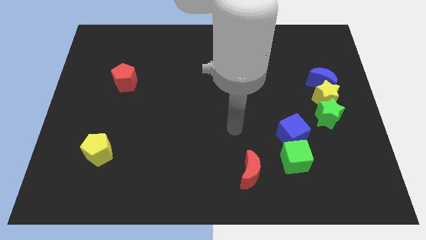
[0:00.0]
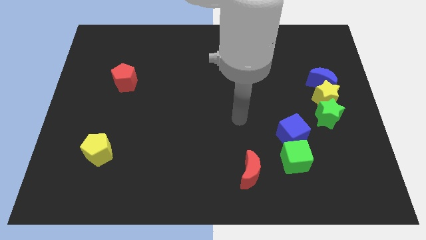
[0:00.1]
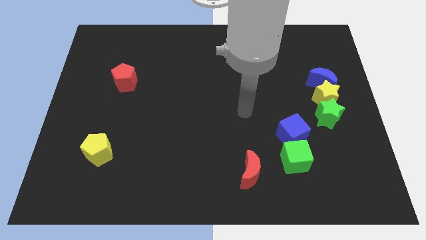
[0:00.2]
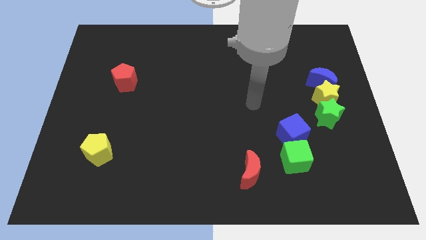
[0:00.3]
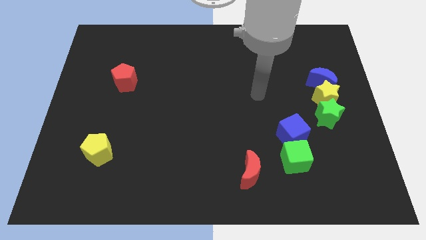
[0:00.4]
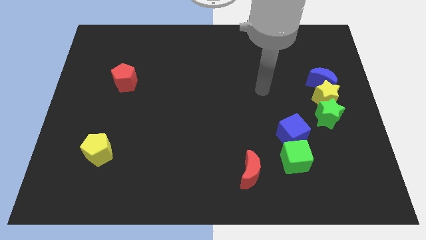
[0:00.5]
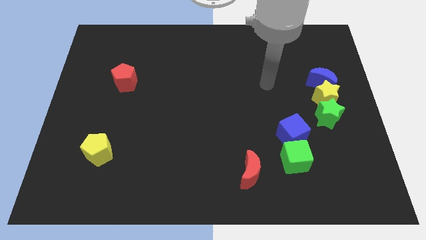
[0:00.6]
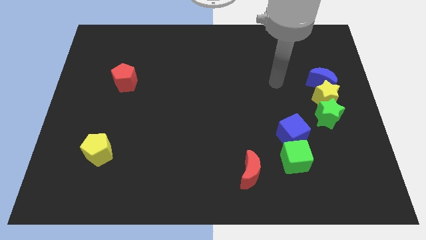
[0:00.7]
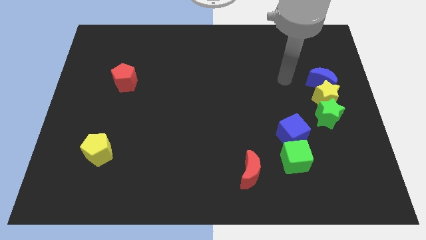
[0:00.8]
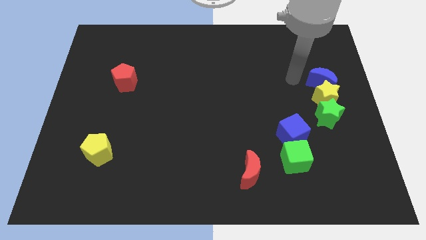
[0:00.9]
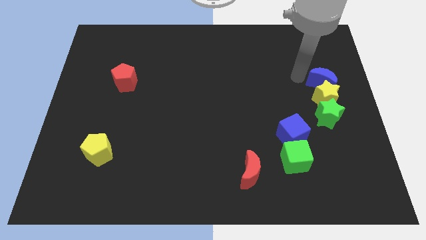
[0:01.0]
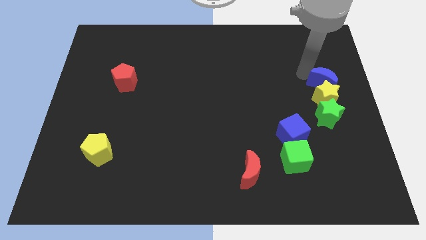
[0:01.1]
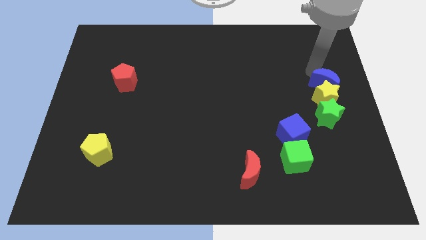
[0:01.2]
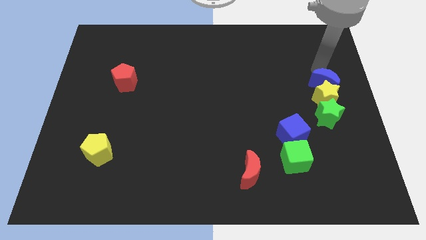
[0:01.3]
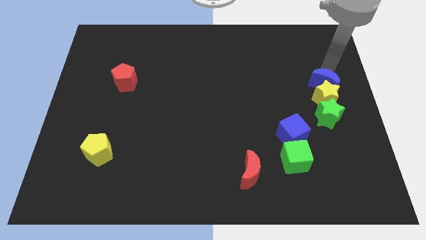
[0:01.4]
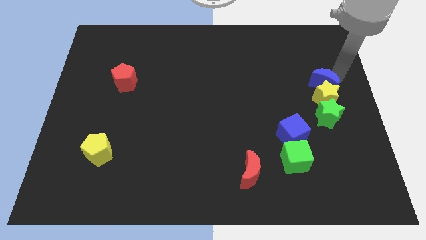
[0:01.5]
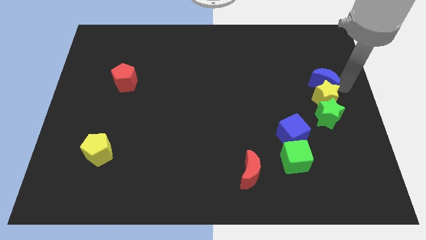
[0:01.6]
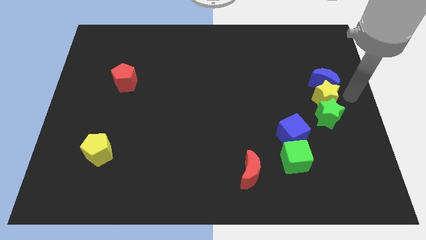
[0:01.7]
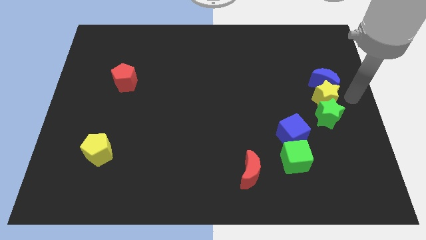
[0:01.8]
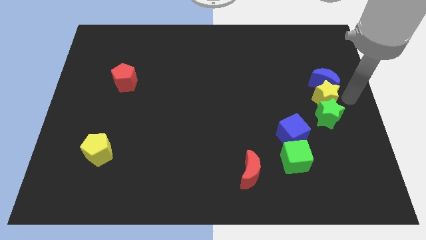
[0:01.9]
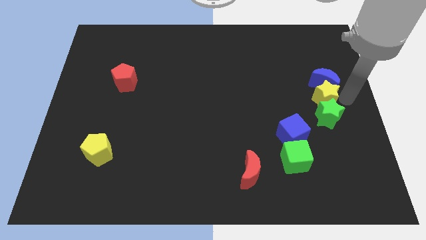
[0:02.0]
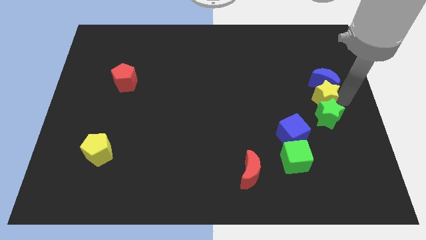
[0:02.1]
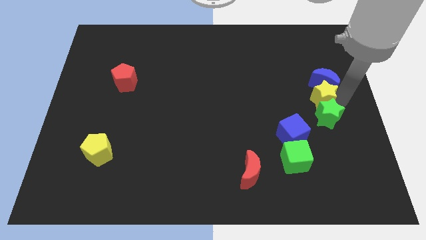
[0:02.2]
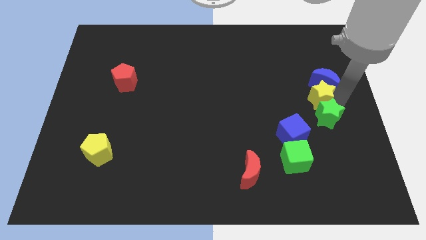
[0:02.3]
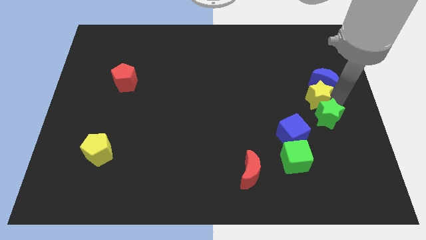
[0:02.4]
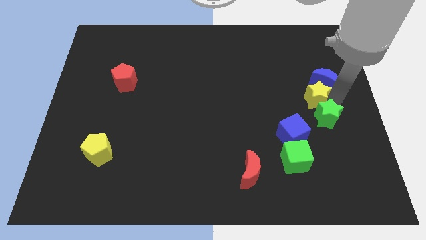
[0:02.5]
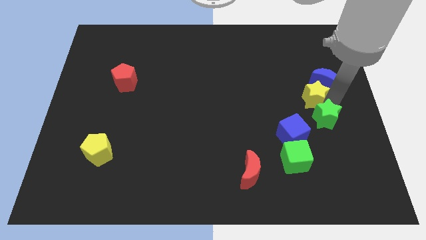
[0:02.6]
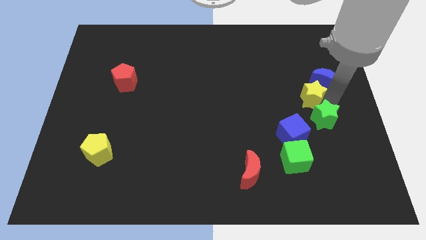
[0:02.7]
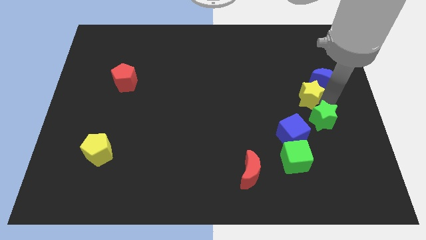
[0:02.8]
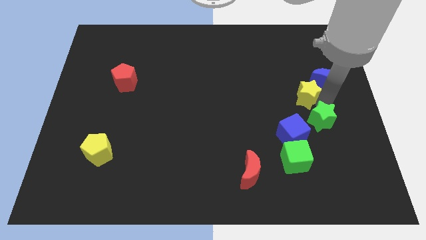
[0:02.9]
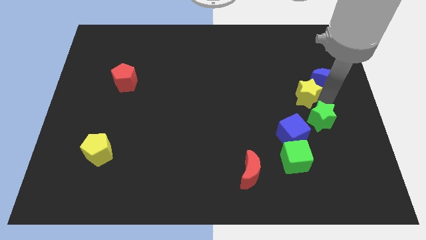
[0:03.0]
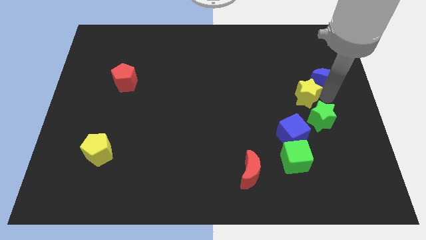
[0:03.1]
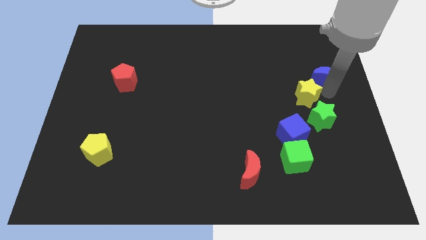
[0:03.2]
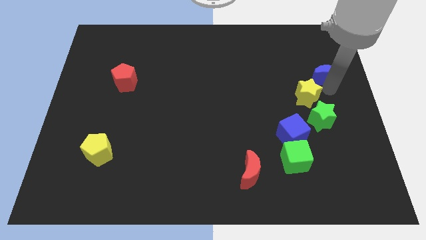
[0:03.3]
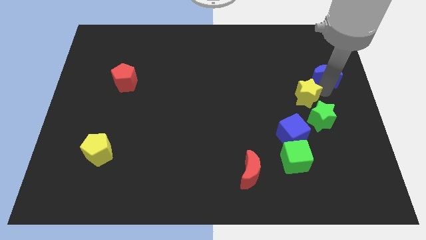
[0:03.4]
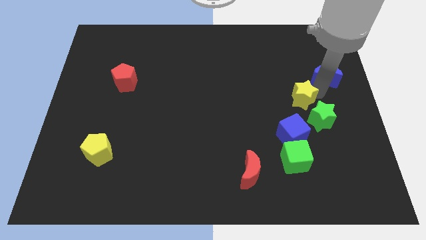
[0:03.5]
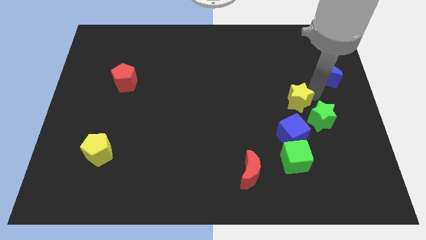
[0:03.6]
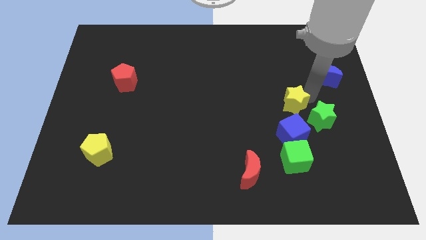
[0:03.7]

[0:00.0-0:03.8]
move the yellow star a bit left

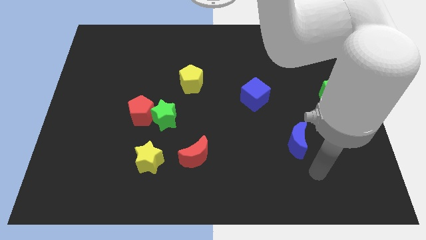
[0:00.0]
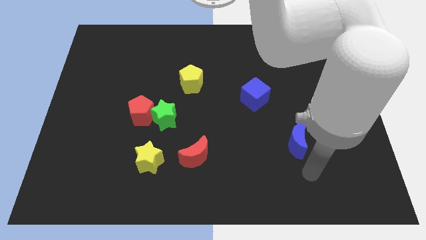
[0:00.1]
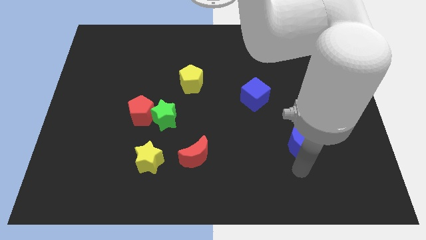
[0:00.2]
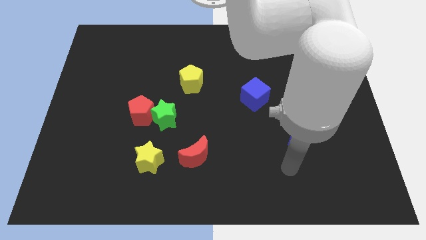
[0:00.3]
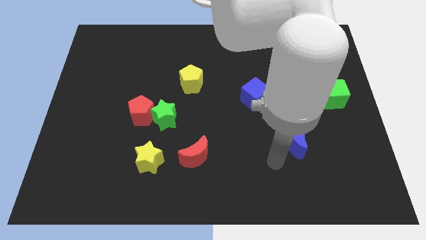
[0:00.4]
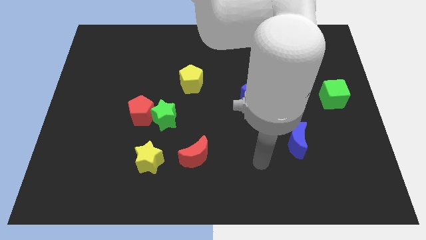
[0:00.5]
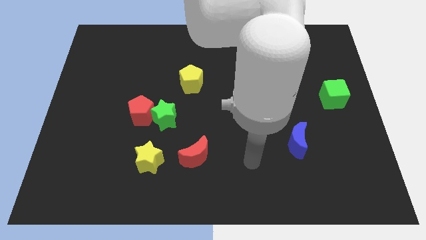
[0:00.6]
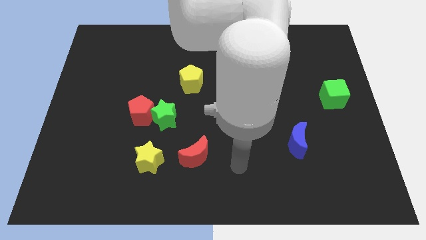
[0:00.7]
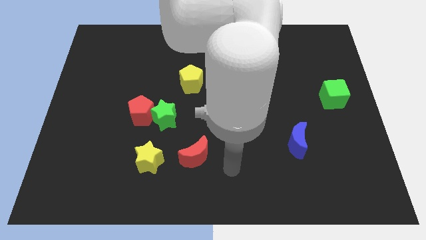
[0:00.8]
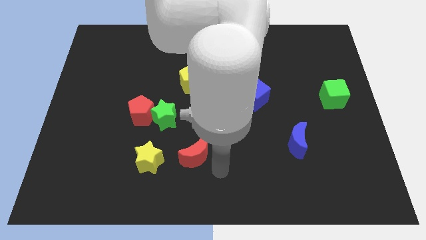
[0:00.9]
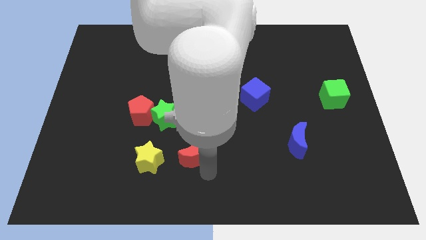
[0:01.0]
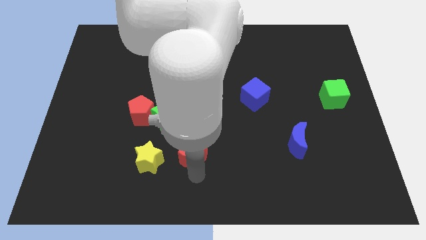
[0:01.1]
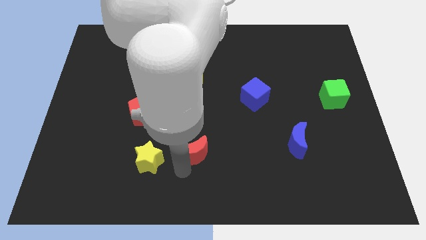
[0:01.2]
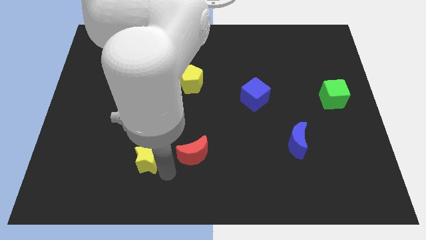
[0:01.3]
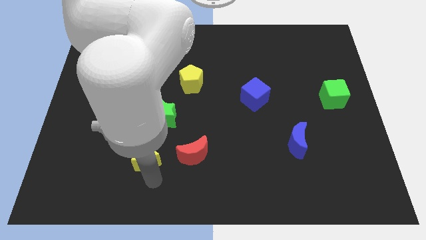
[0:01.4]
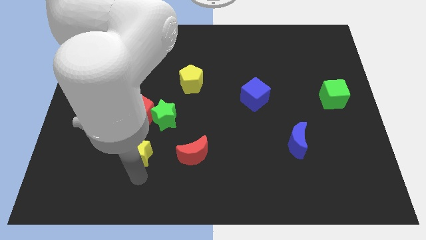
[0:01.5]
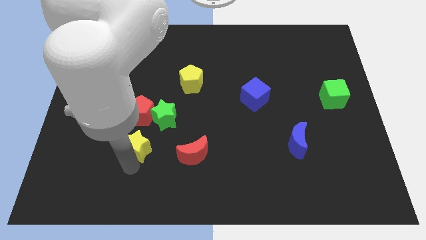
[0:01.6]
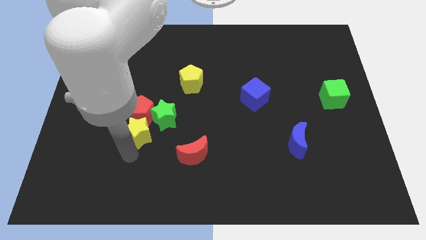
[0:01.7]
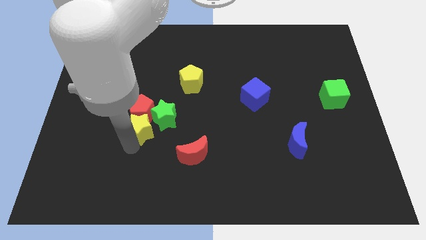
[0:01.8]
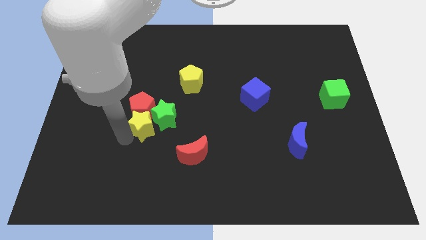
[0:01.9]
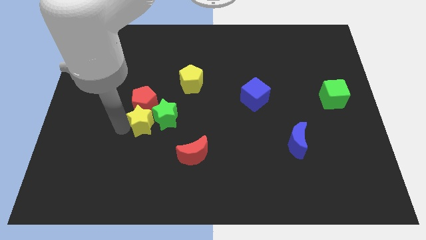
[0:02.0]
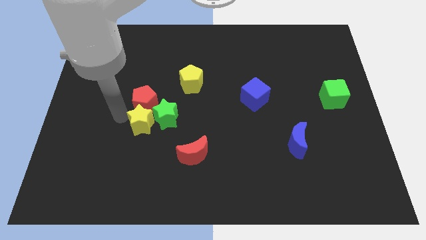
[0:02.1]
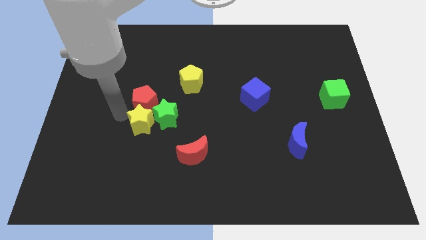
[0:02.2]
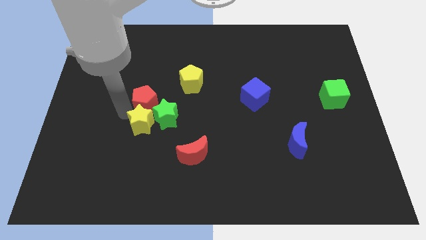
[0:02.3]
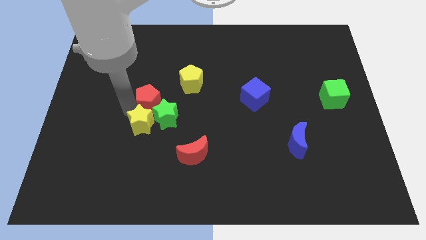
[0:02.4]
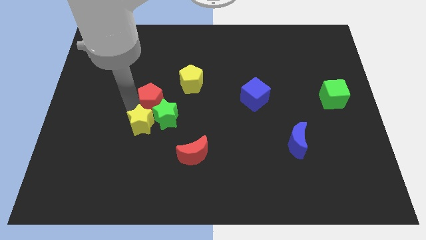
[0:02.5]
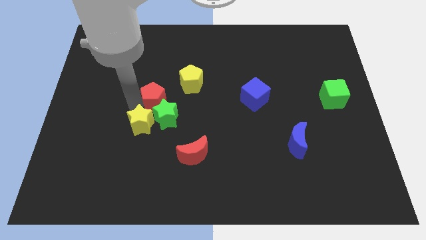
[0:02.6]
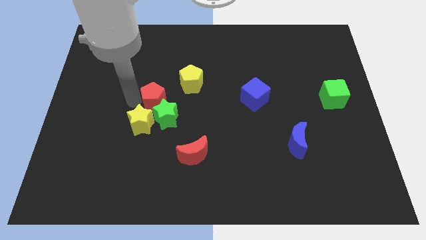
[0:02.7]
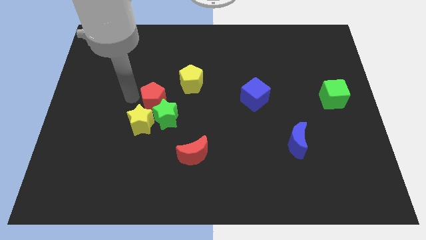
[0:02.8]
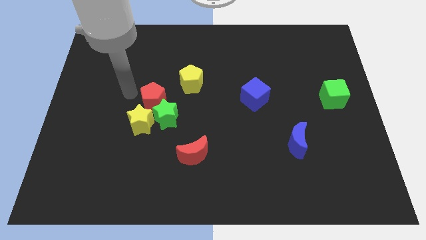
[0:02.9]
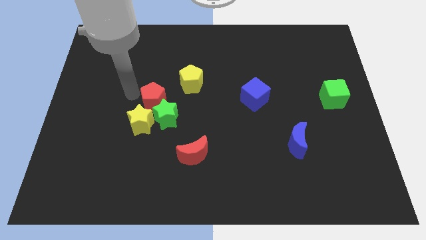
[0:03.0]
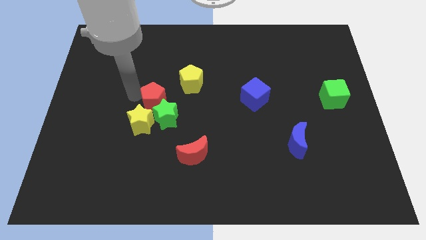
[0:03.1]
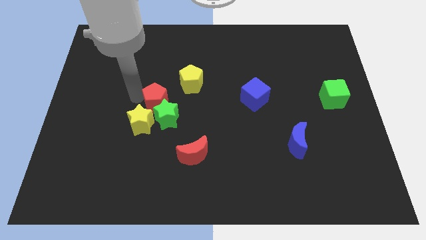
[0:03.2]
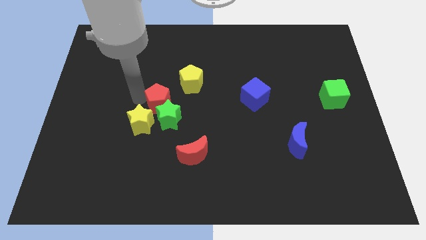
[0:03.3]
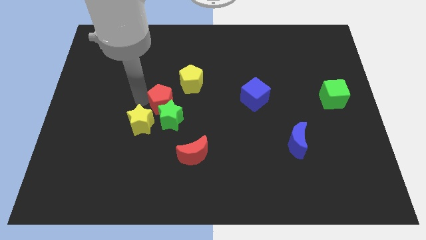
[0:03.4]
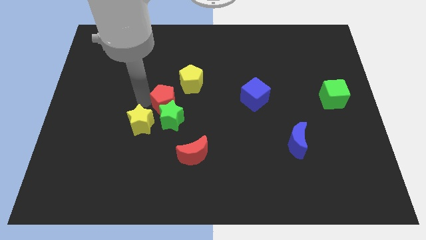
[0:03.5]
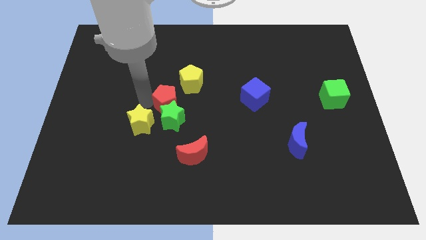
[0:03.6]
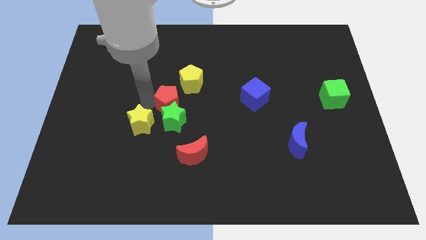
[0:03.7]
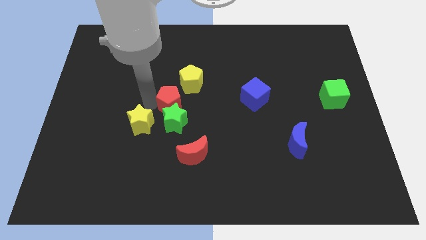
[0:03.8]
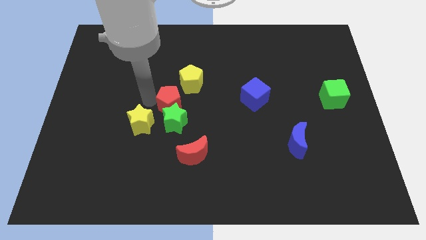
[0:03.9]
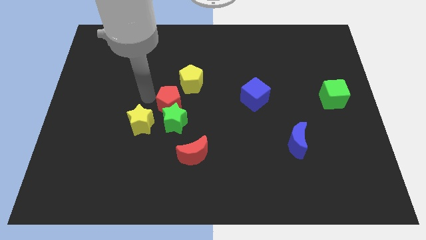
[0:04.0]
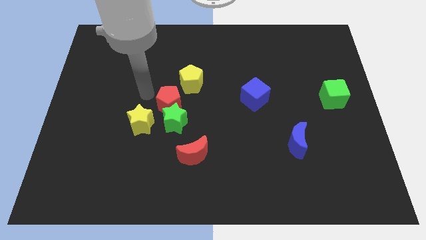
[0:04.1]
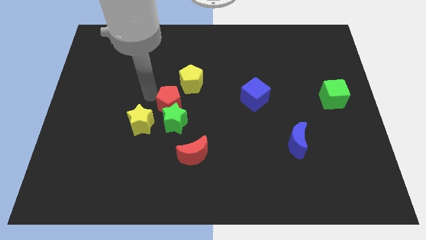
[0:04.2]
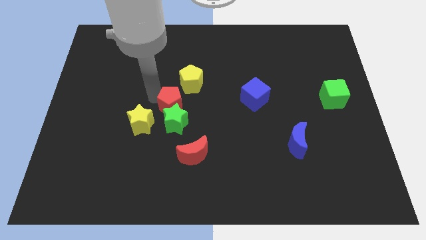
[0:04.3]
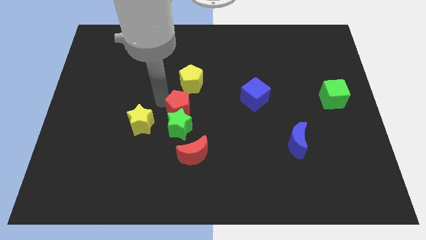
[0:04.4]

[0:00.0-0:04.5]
push the red pentagon a bit right
